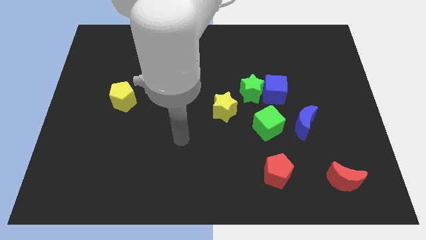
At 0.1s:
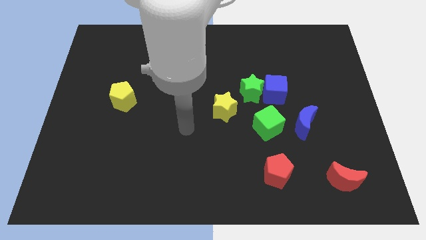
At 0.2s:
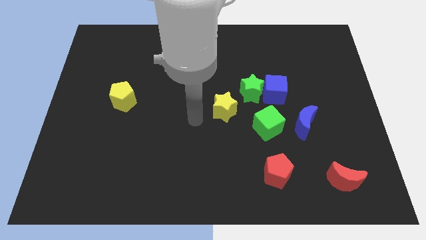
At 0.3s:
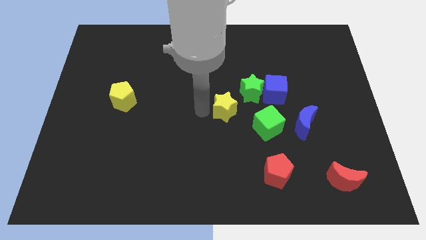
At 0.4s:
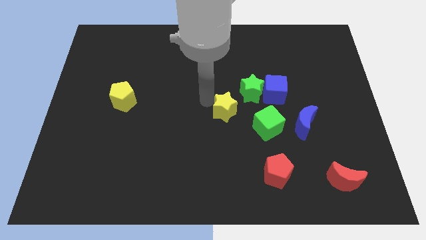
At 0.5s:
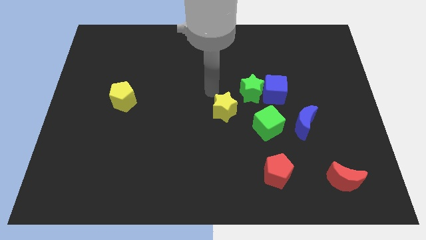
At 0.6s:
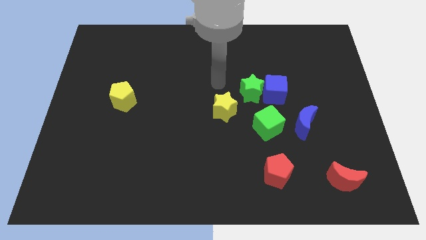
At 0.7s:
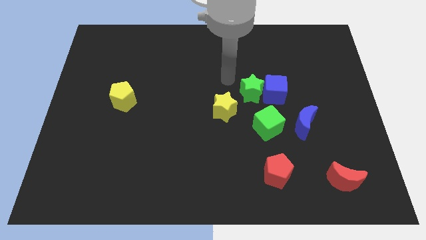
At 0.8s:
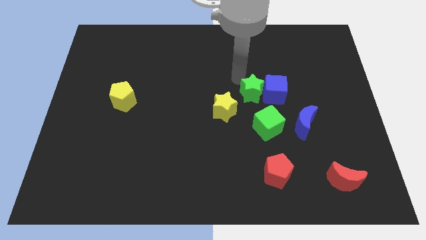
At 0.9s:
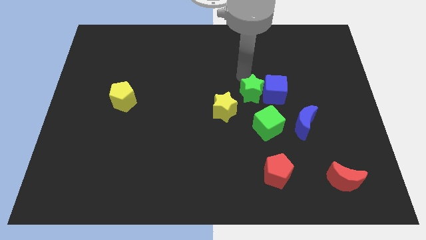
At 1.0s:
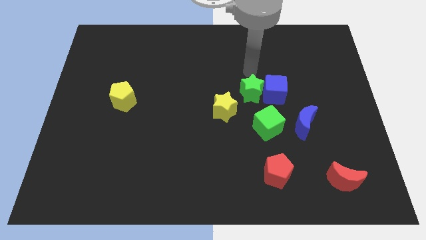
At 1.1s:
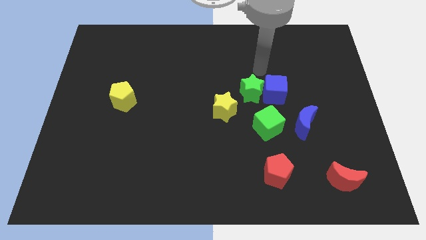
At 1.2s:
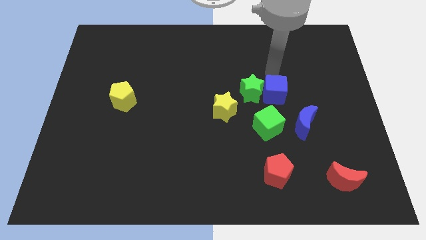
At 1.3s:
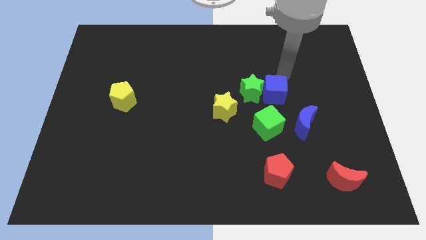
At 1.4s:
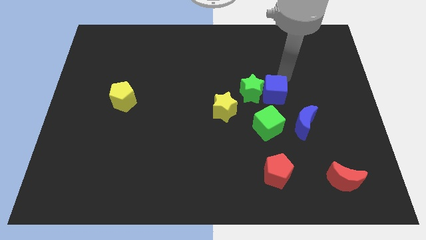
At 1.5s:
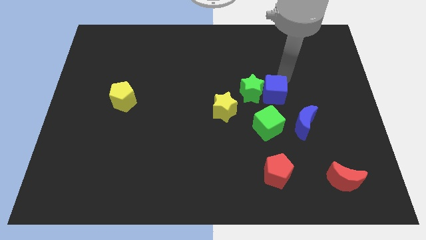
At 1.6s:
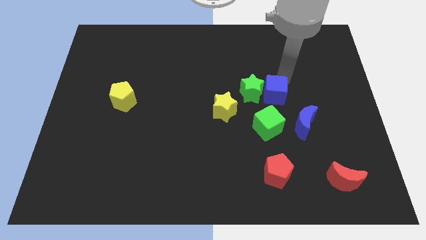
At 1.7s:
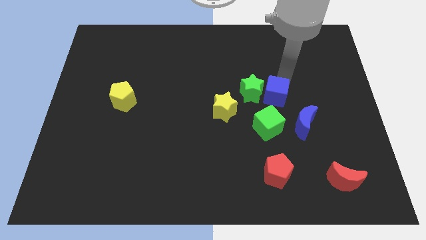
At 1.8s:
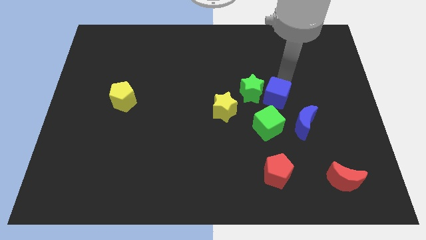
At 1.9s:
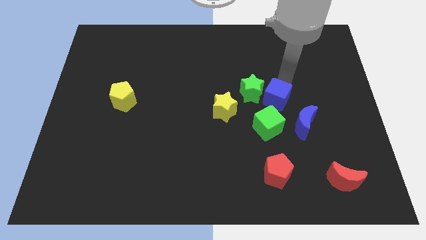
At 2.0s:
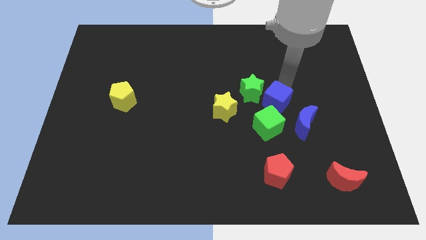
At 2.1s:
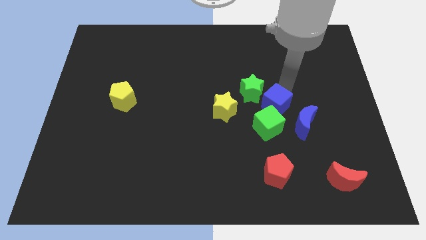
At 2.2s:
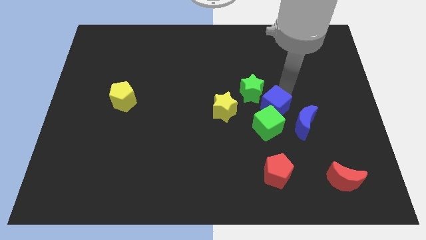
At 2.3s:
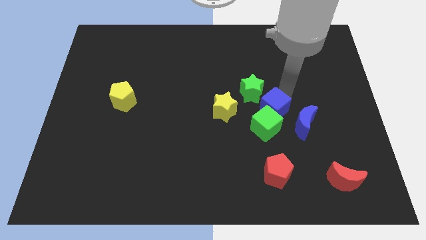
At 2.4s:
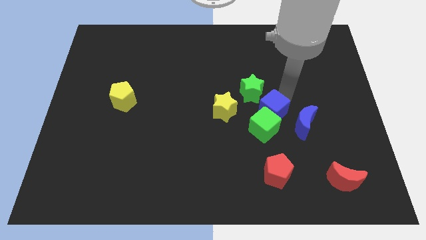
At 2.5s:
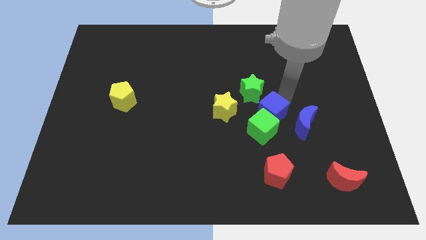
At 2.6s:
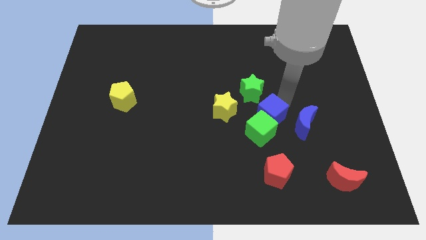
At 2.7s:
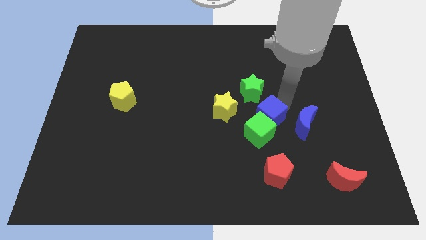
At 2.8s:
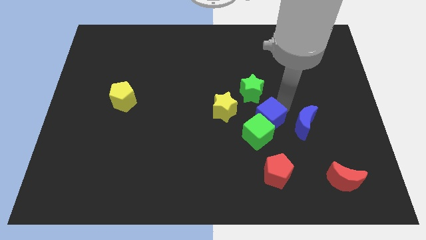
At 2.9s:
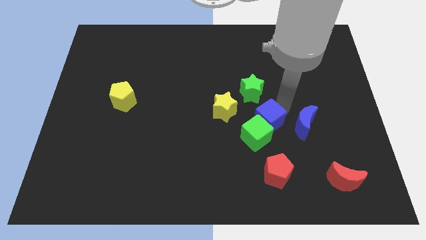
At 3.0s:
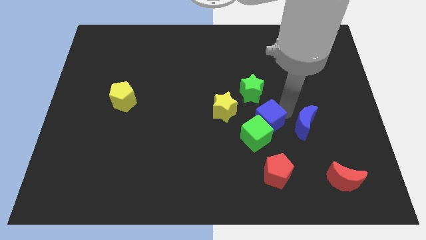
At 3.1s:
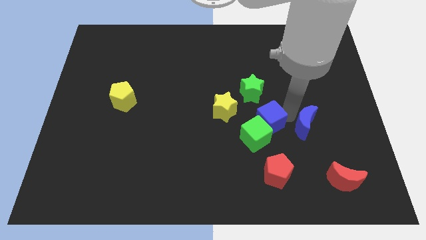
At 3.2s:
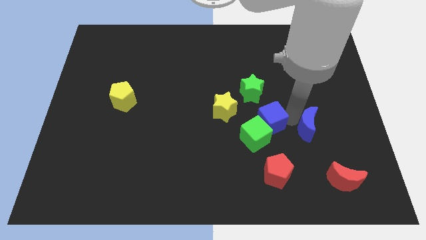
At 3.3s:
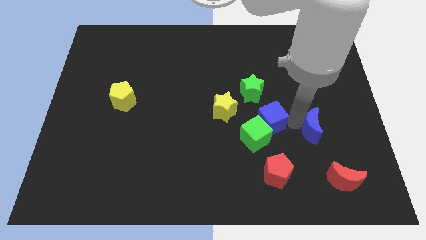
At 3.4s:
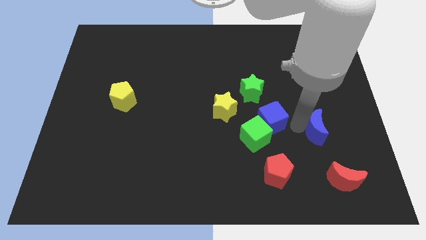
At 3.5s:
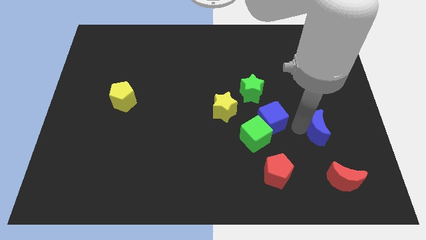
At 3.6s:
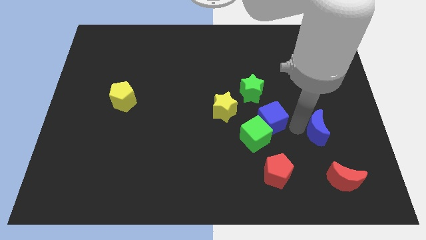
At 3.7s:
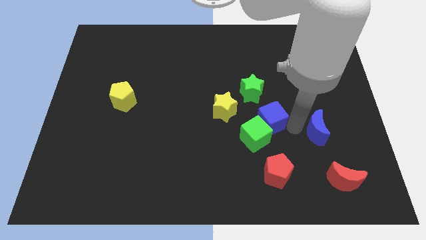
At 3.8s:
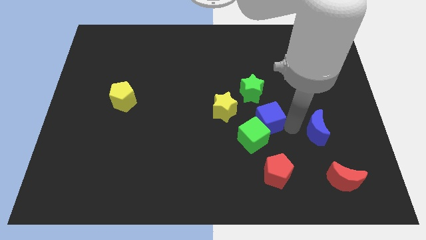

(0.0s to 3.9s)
push the blue cube down and to the left a bit

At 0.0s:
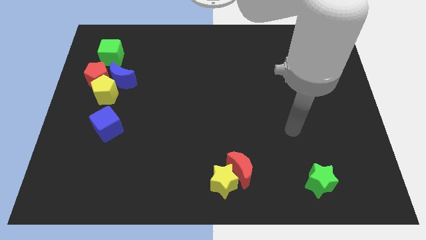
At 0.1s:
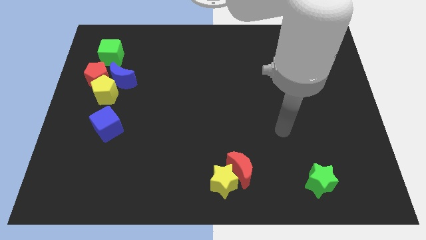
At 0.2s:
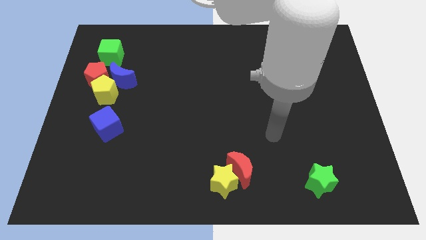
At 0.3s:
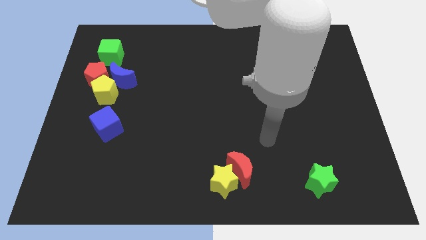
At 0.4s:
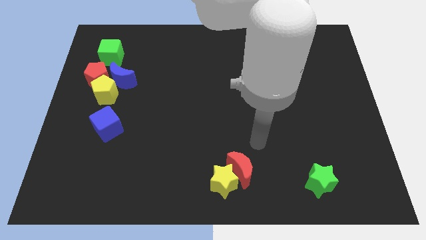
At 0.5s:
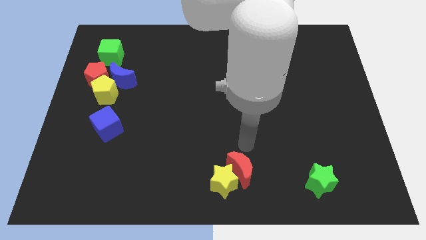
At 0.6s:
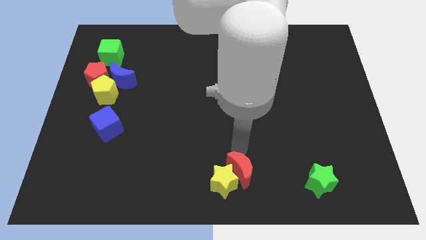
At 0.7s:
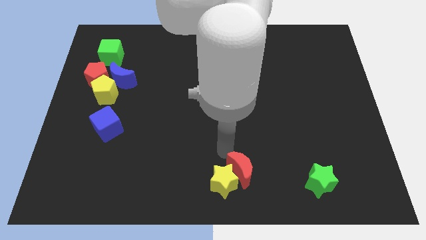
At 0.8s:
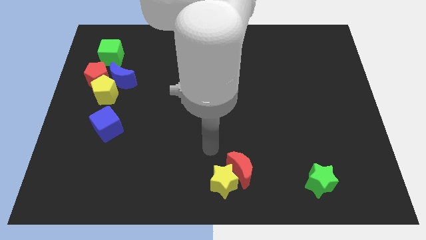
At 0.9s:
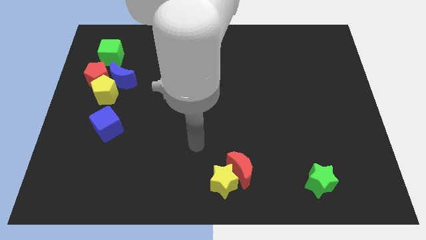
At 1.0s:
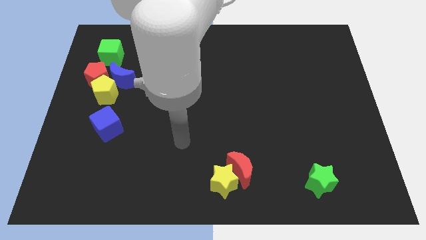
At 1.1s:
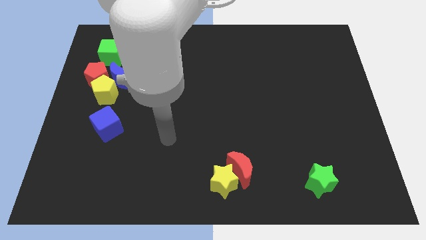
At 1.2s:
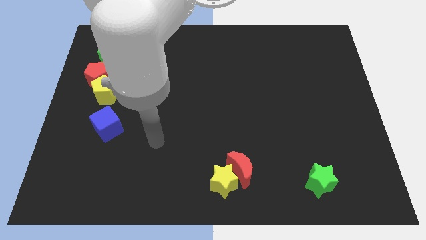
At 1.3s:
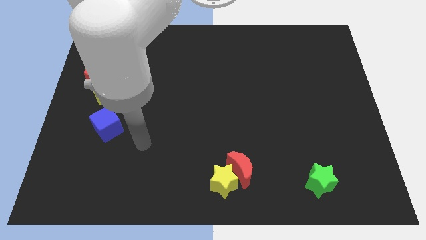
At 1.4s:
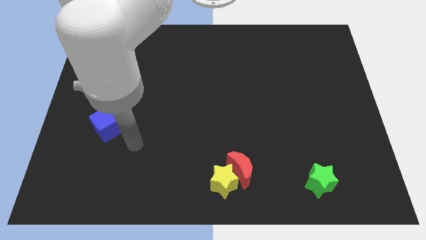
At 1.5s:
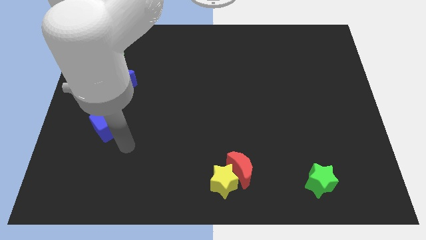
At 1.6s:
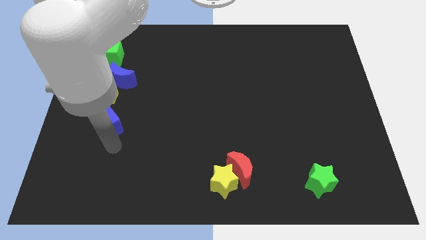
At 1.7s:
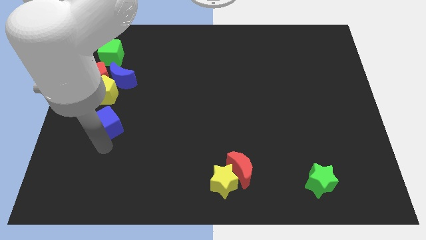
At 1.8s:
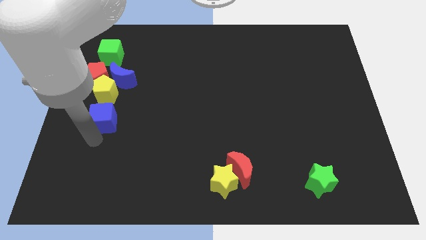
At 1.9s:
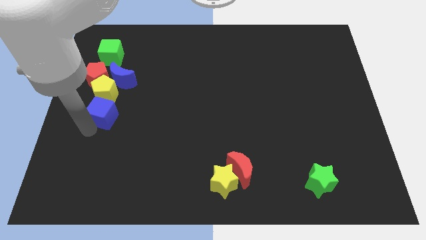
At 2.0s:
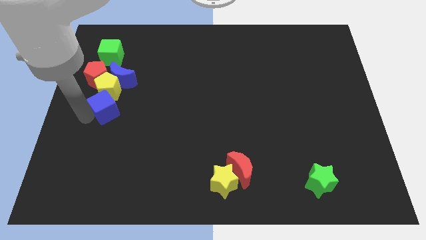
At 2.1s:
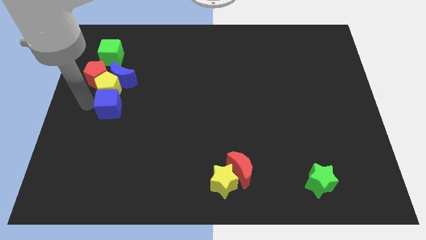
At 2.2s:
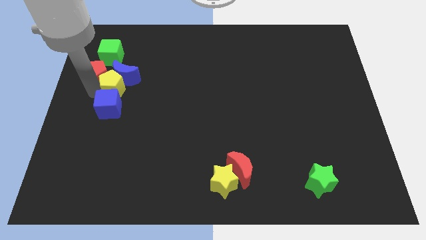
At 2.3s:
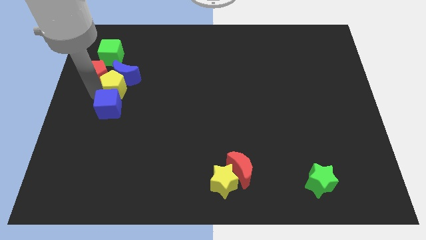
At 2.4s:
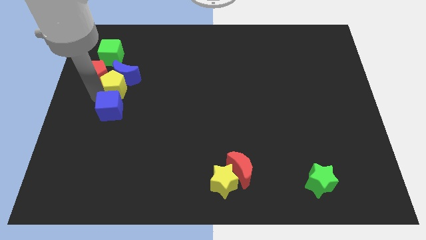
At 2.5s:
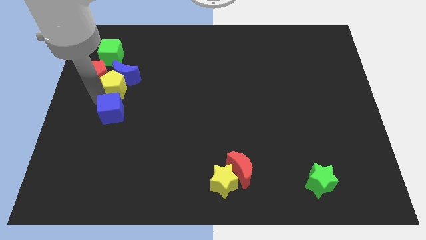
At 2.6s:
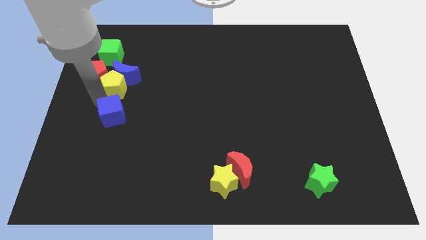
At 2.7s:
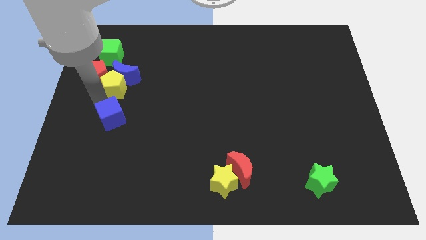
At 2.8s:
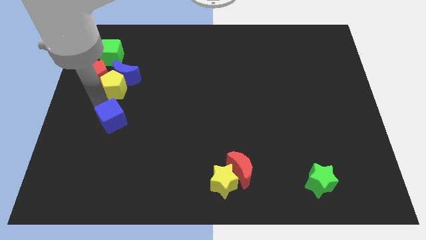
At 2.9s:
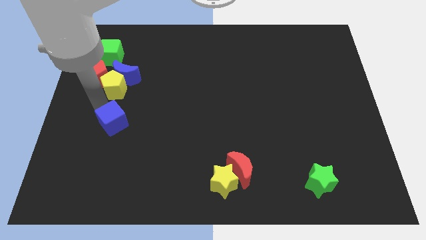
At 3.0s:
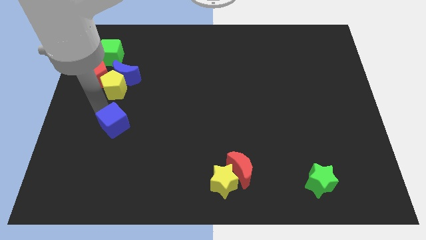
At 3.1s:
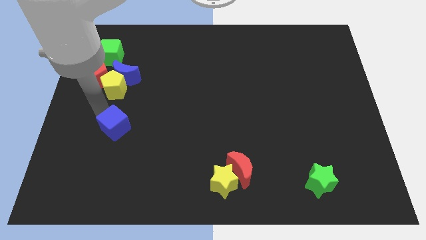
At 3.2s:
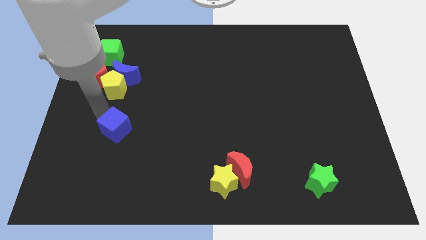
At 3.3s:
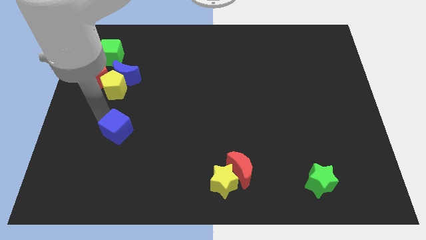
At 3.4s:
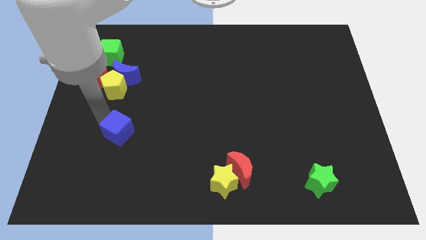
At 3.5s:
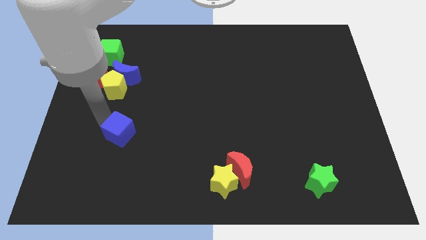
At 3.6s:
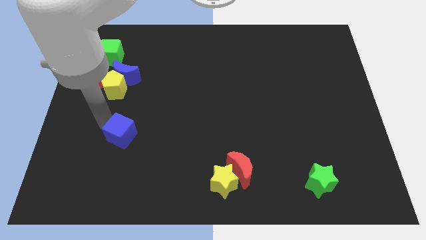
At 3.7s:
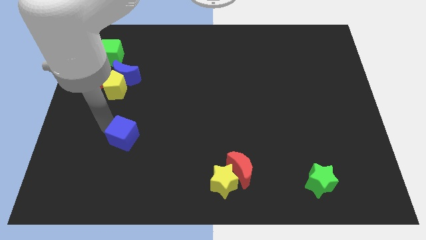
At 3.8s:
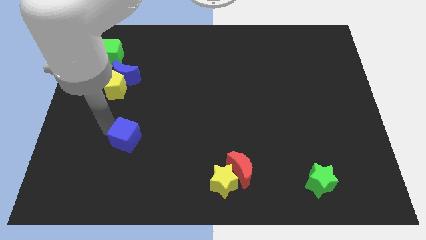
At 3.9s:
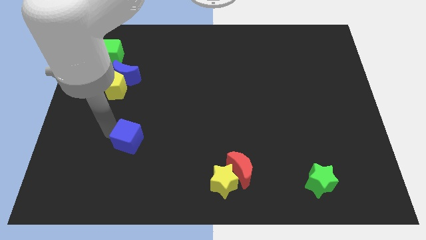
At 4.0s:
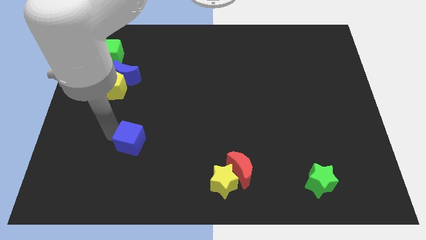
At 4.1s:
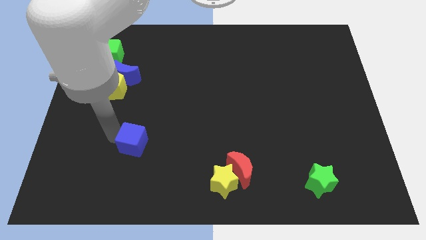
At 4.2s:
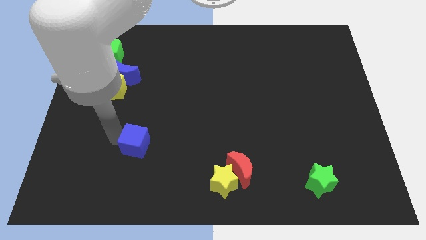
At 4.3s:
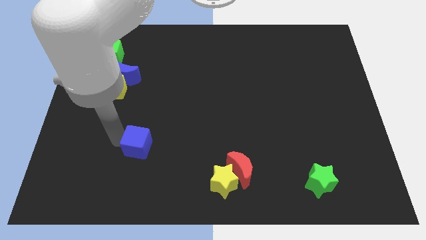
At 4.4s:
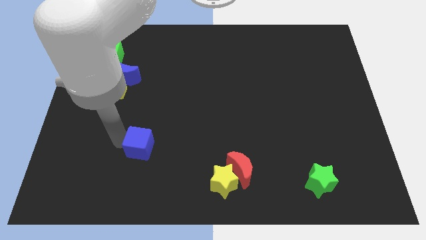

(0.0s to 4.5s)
move the blue cube right slightly
